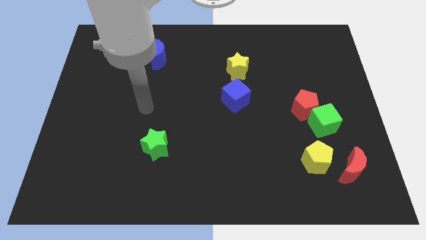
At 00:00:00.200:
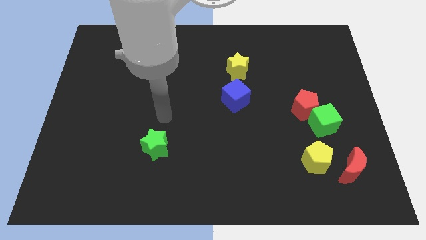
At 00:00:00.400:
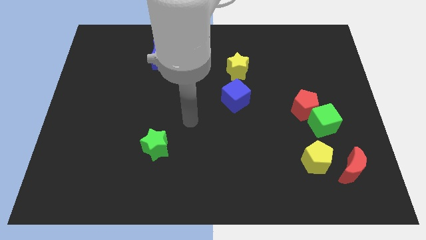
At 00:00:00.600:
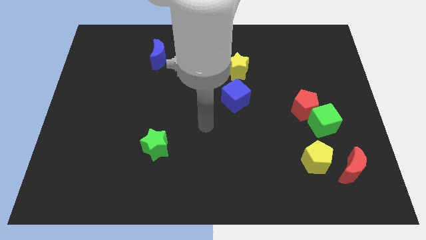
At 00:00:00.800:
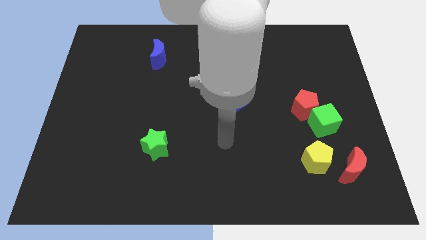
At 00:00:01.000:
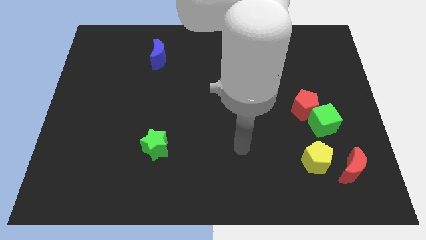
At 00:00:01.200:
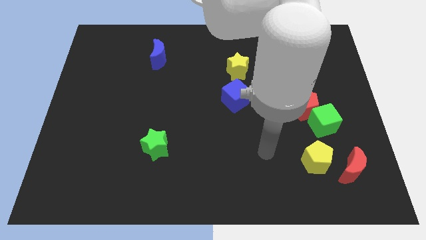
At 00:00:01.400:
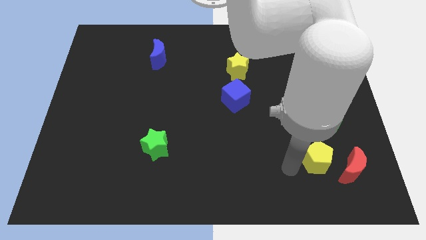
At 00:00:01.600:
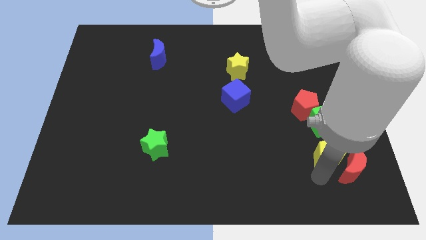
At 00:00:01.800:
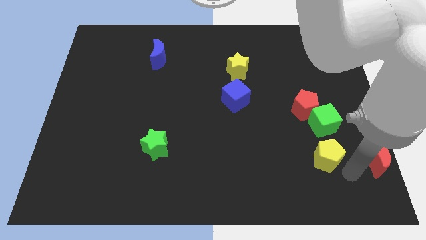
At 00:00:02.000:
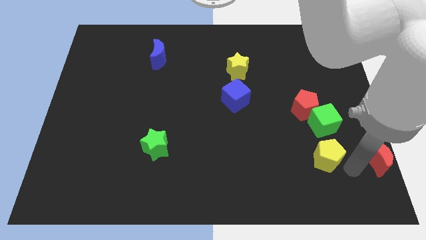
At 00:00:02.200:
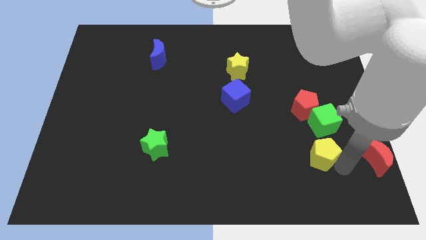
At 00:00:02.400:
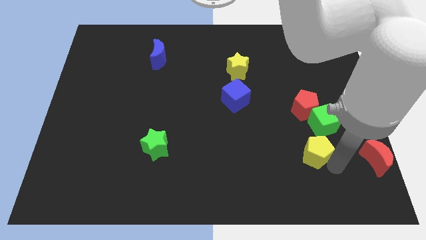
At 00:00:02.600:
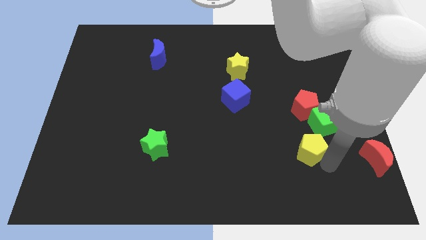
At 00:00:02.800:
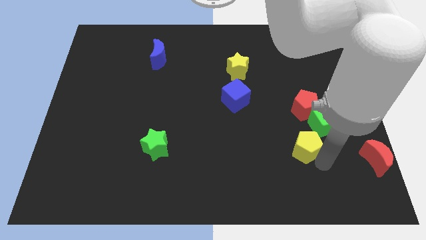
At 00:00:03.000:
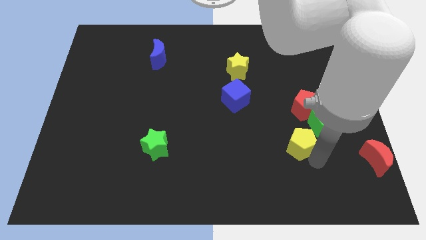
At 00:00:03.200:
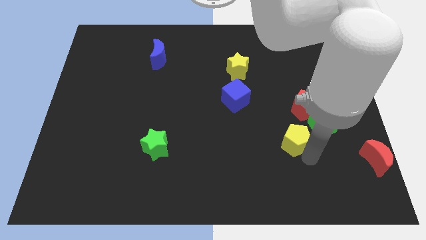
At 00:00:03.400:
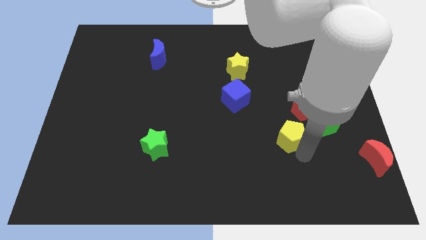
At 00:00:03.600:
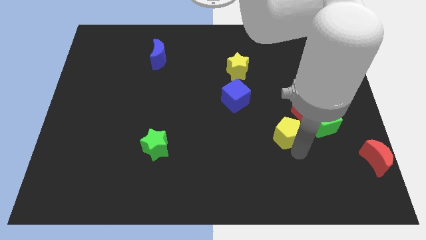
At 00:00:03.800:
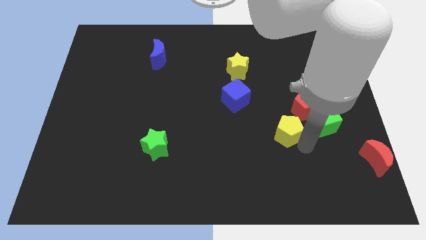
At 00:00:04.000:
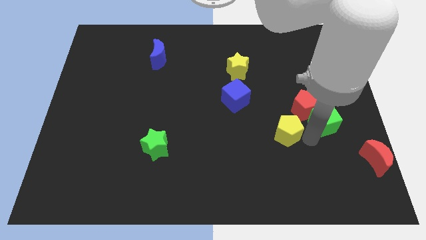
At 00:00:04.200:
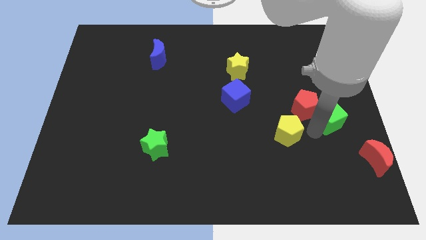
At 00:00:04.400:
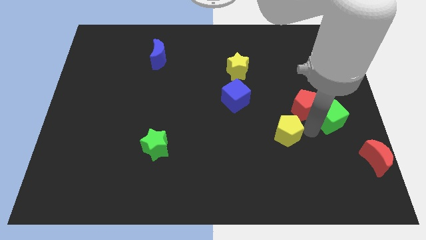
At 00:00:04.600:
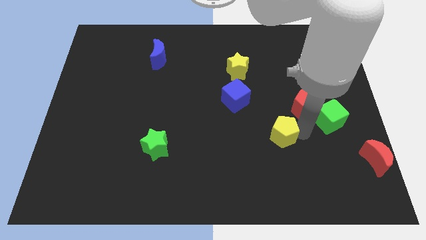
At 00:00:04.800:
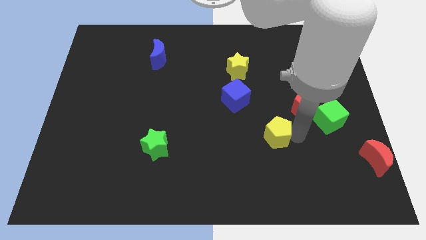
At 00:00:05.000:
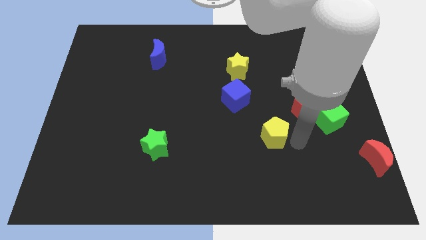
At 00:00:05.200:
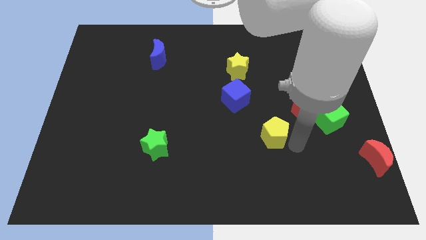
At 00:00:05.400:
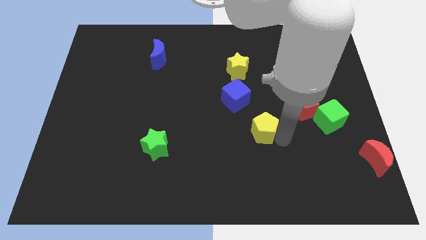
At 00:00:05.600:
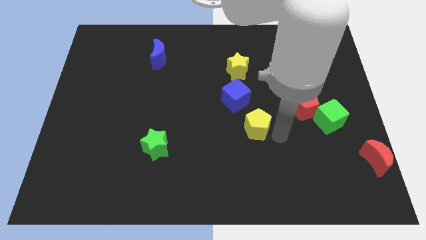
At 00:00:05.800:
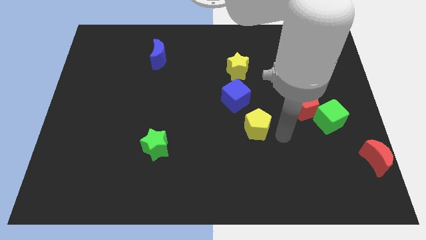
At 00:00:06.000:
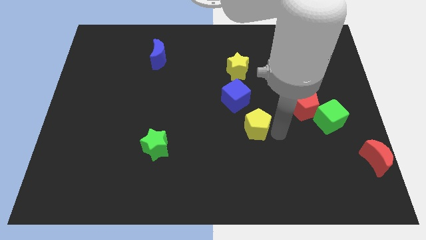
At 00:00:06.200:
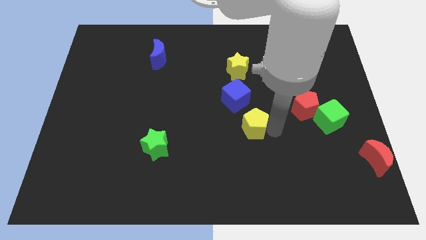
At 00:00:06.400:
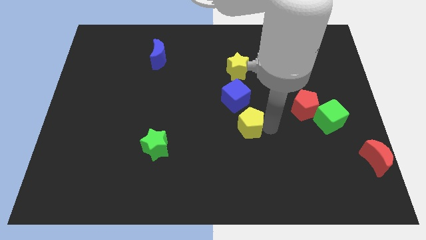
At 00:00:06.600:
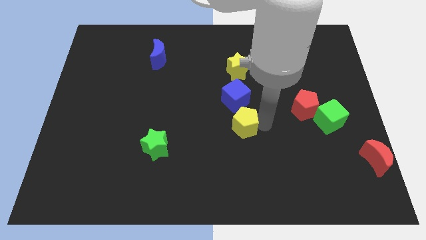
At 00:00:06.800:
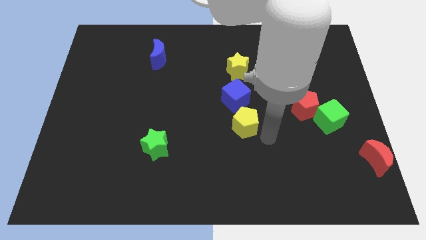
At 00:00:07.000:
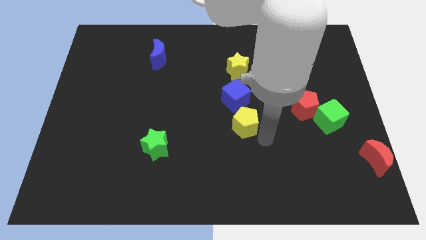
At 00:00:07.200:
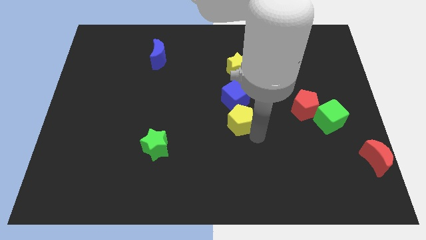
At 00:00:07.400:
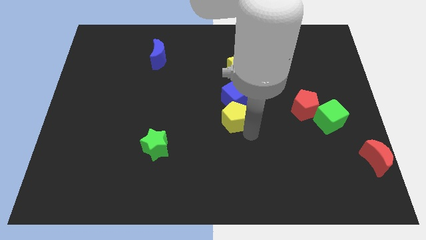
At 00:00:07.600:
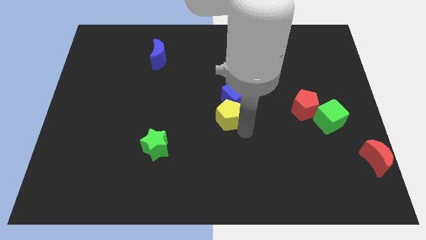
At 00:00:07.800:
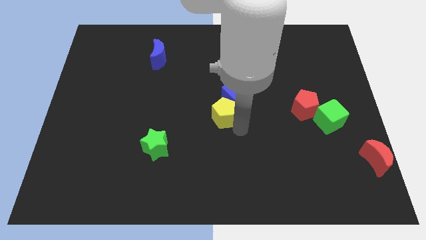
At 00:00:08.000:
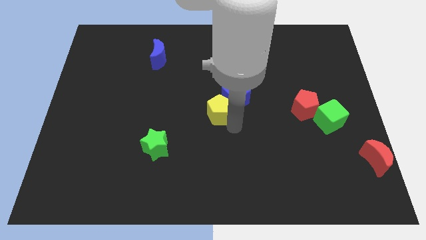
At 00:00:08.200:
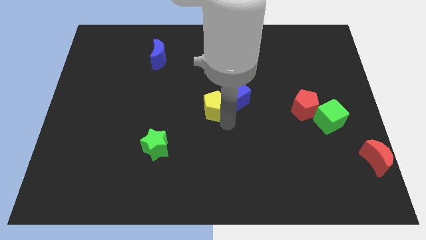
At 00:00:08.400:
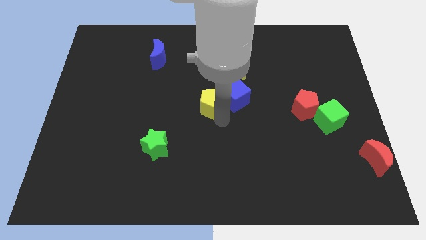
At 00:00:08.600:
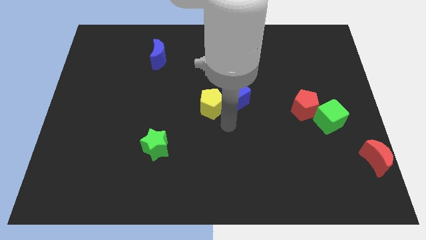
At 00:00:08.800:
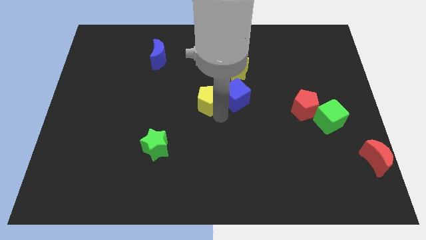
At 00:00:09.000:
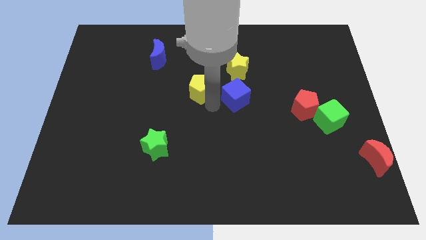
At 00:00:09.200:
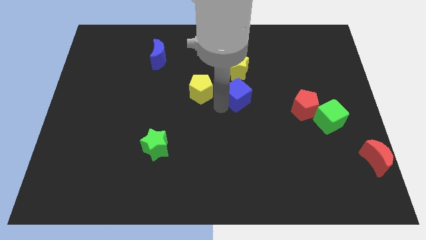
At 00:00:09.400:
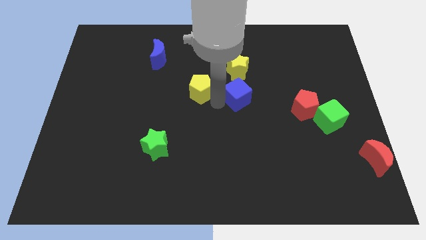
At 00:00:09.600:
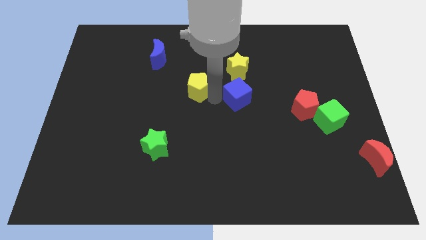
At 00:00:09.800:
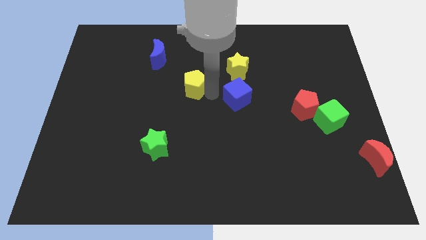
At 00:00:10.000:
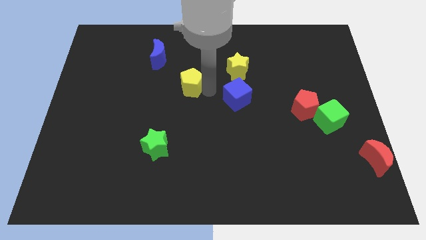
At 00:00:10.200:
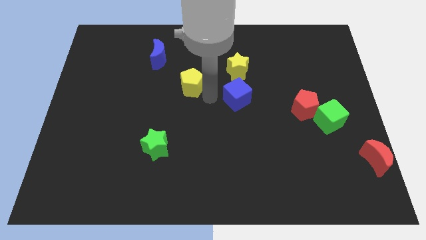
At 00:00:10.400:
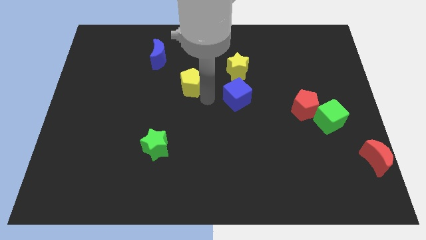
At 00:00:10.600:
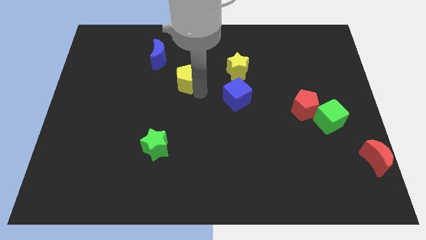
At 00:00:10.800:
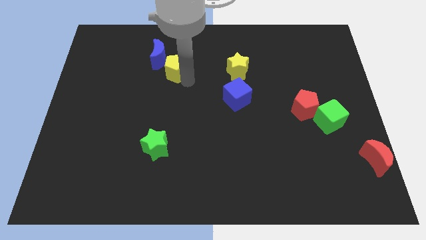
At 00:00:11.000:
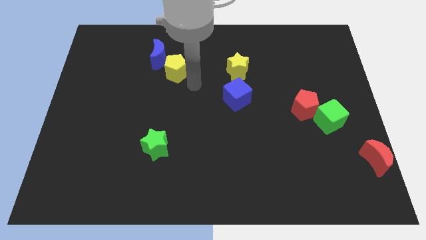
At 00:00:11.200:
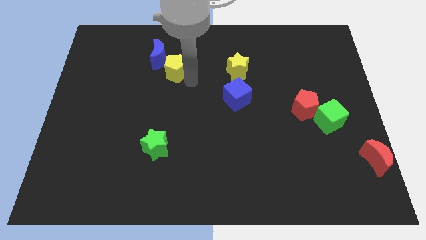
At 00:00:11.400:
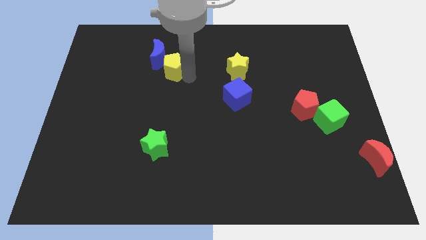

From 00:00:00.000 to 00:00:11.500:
push the yellow pentagon next to the blue moon

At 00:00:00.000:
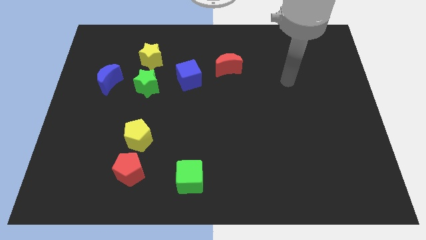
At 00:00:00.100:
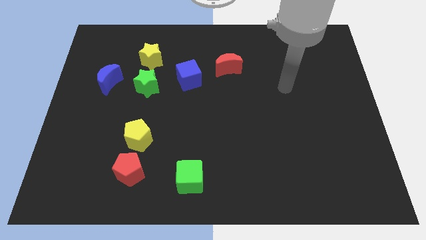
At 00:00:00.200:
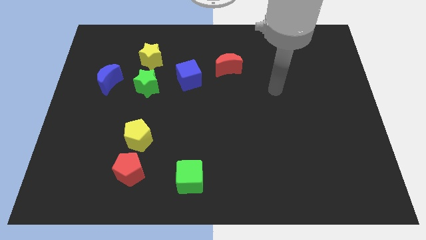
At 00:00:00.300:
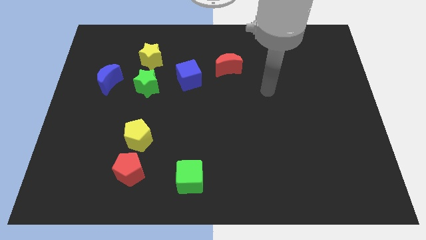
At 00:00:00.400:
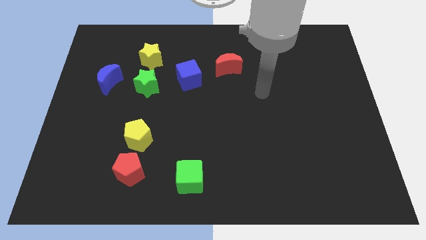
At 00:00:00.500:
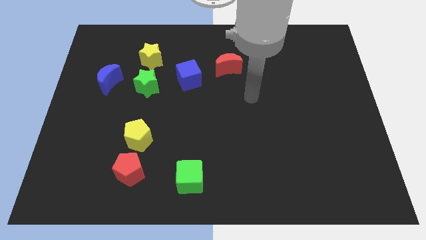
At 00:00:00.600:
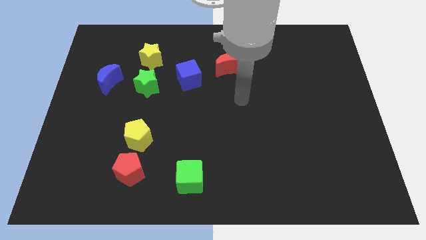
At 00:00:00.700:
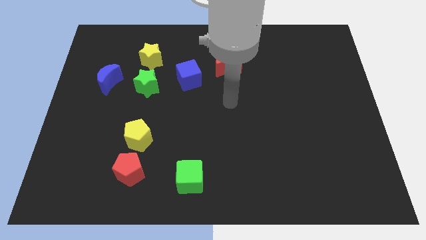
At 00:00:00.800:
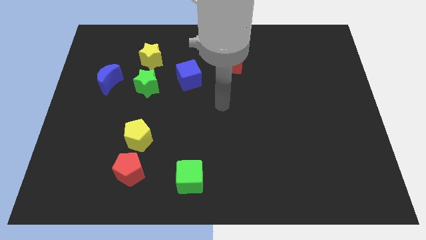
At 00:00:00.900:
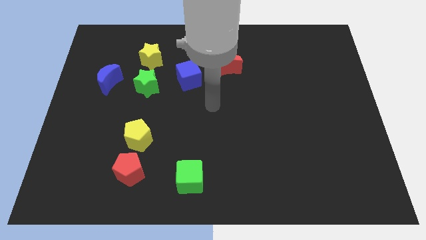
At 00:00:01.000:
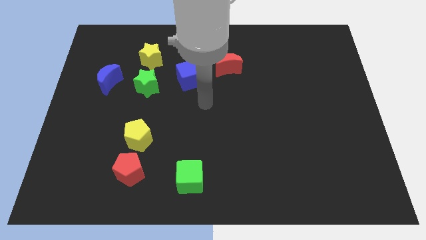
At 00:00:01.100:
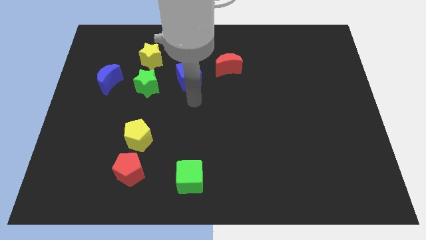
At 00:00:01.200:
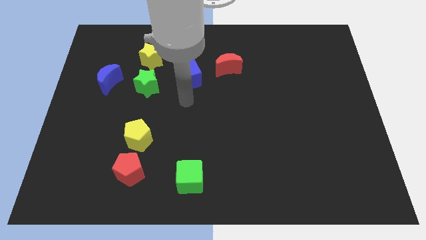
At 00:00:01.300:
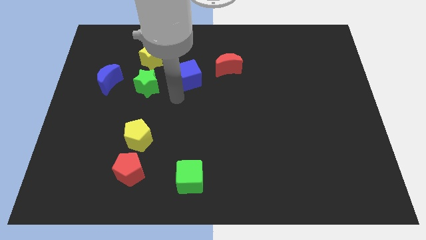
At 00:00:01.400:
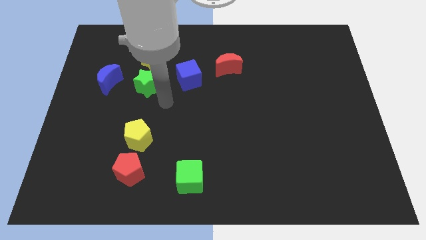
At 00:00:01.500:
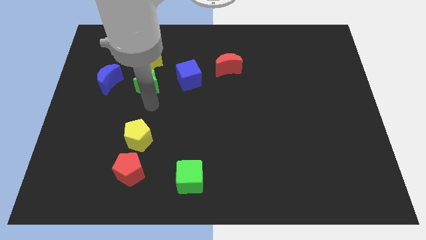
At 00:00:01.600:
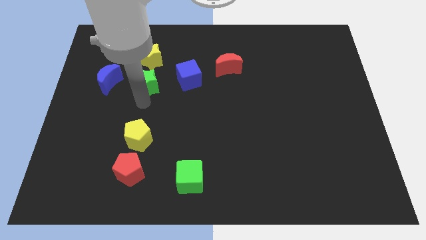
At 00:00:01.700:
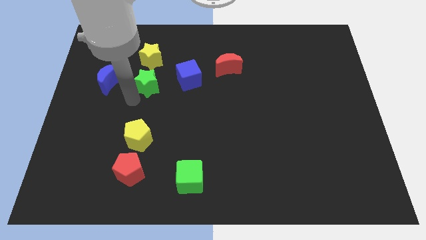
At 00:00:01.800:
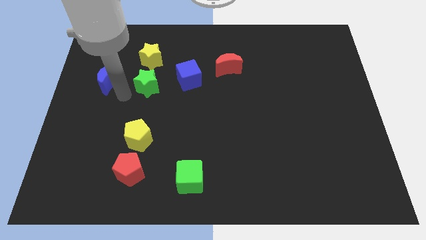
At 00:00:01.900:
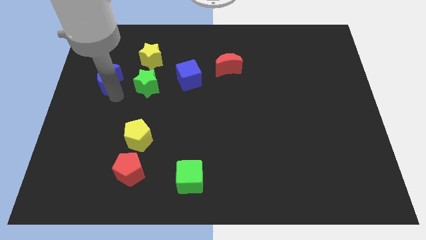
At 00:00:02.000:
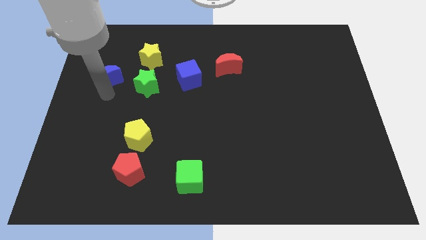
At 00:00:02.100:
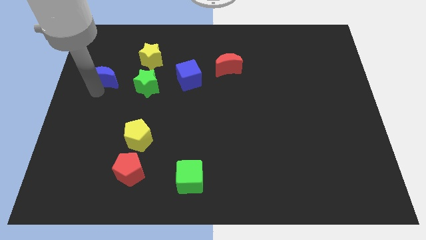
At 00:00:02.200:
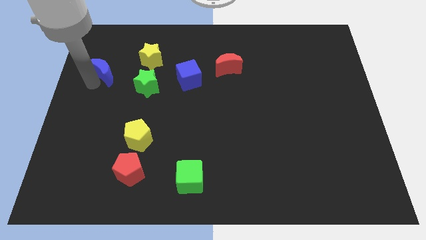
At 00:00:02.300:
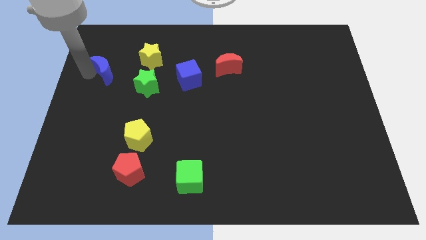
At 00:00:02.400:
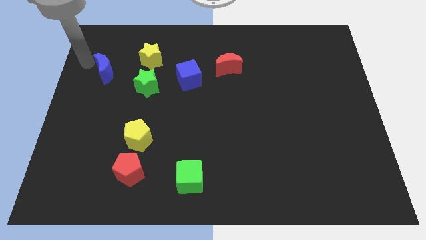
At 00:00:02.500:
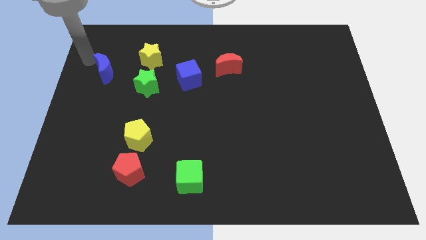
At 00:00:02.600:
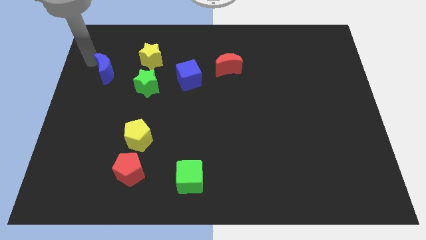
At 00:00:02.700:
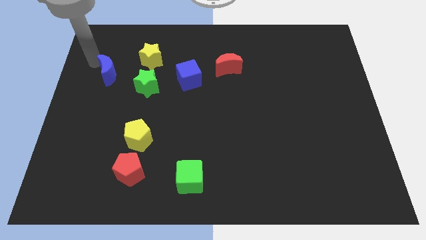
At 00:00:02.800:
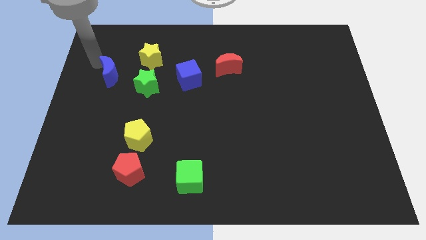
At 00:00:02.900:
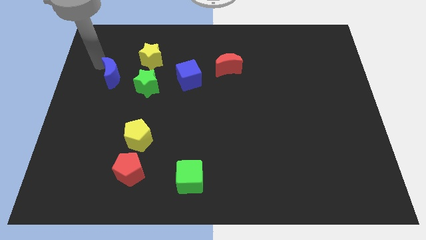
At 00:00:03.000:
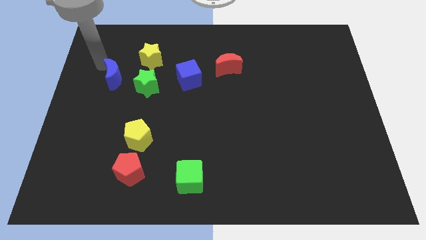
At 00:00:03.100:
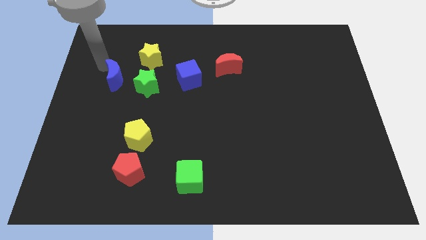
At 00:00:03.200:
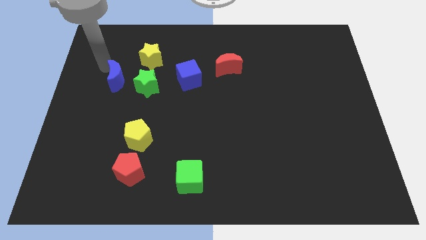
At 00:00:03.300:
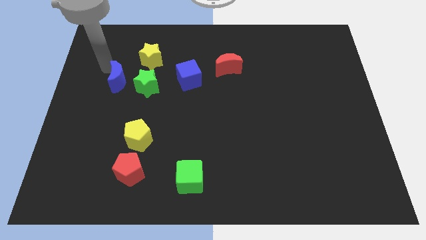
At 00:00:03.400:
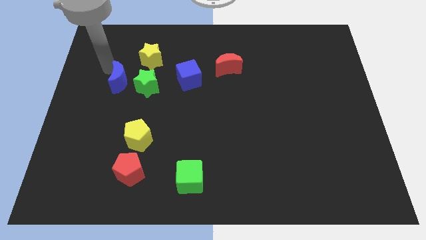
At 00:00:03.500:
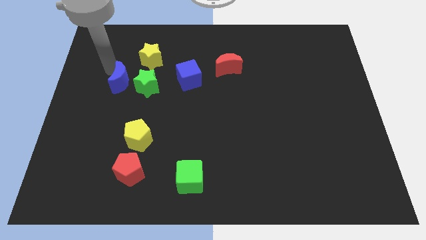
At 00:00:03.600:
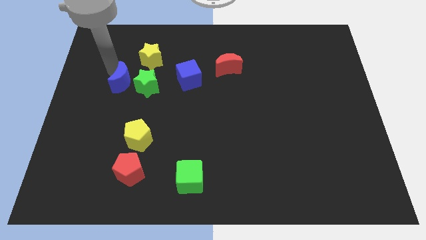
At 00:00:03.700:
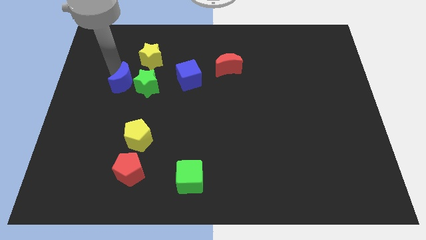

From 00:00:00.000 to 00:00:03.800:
push the blue moon next to the green star
